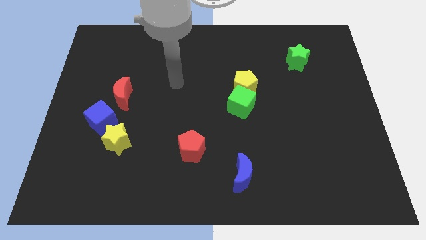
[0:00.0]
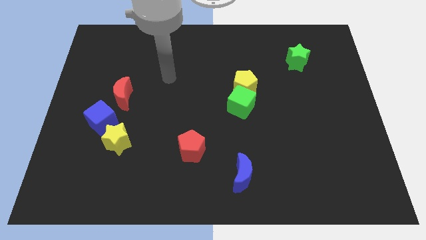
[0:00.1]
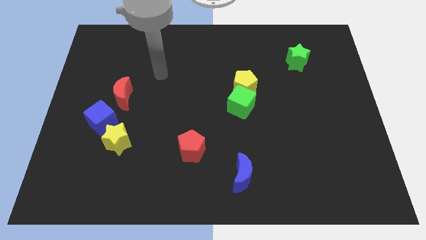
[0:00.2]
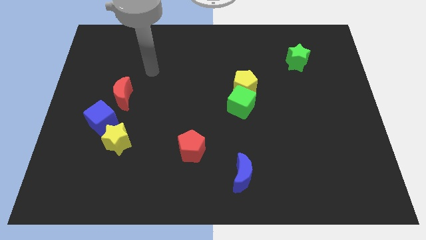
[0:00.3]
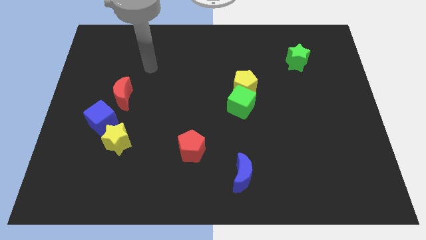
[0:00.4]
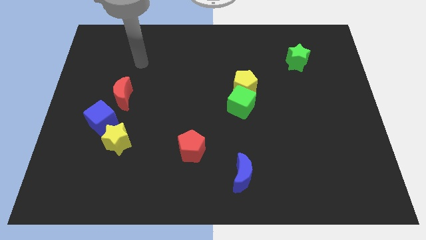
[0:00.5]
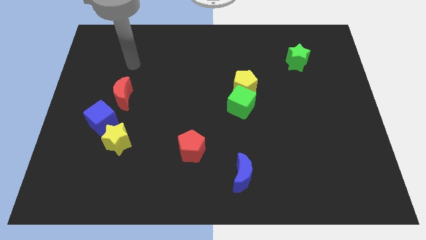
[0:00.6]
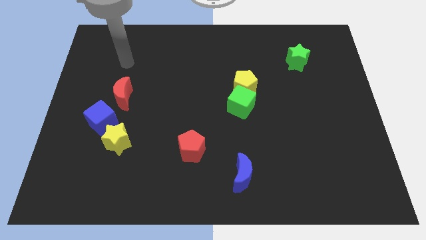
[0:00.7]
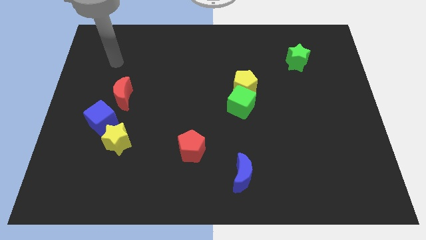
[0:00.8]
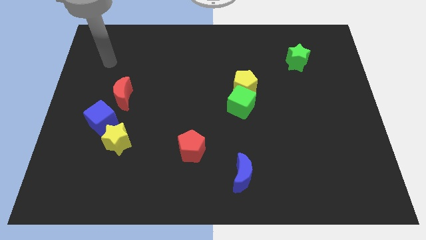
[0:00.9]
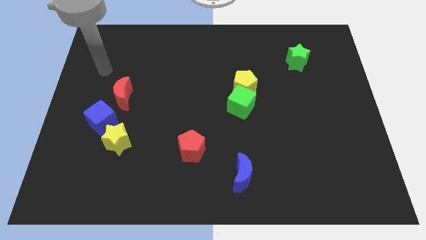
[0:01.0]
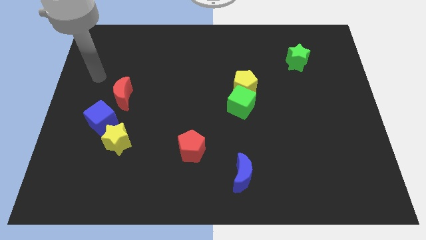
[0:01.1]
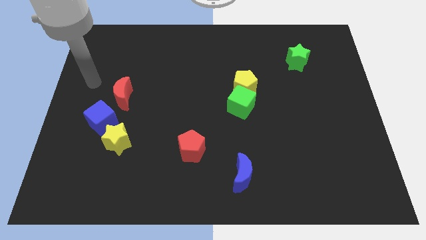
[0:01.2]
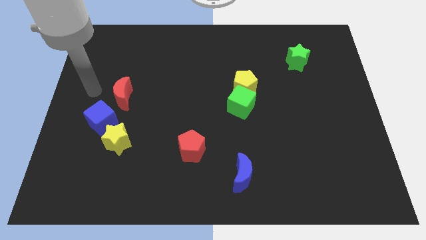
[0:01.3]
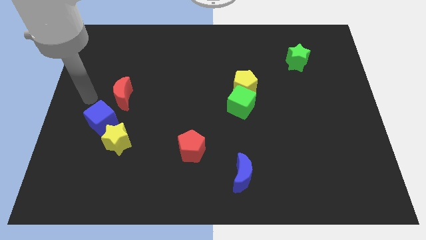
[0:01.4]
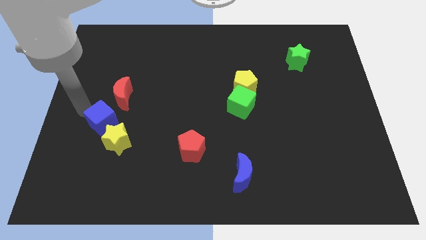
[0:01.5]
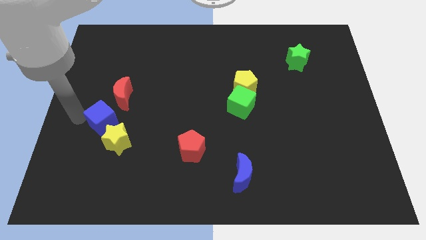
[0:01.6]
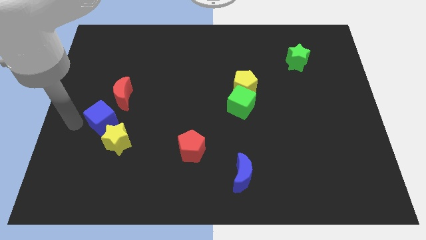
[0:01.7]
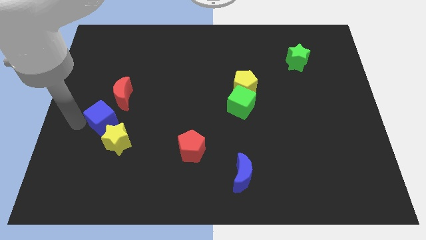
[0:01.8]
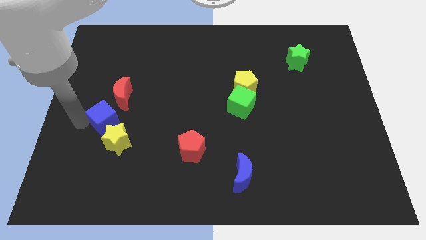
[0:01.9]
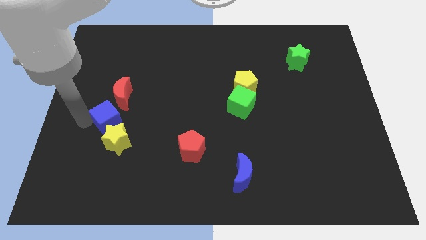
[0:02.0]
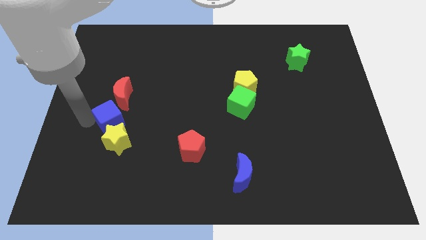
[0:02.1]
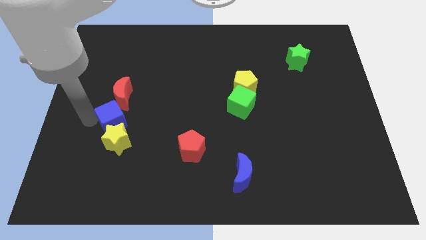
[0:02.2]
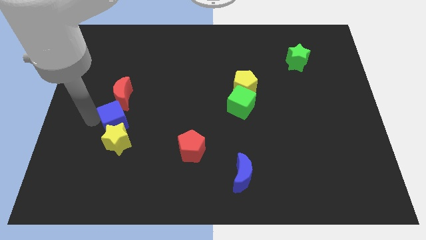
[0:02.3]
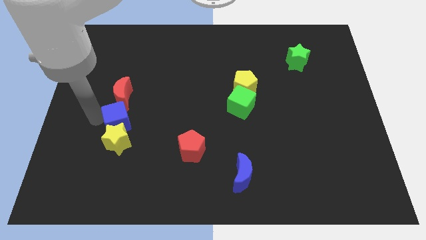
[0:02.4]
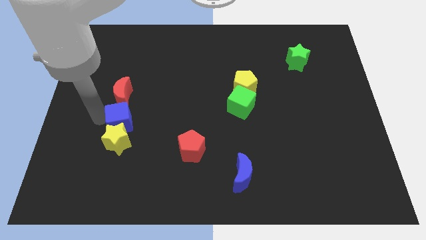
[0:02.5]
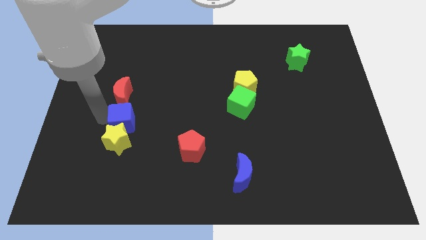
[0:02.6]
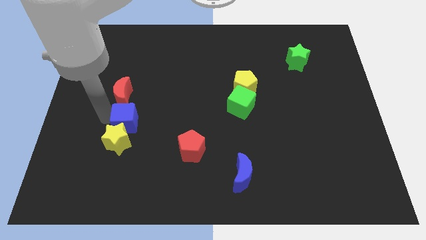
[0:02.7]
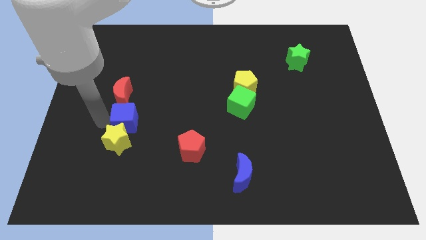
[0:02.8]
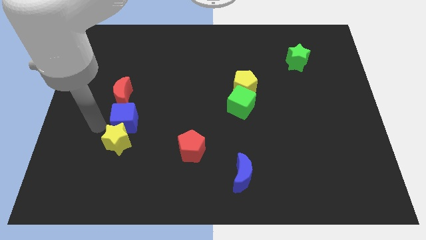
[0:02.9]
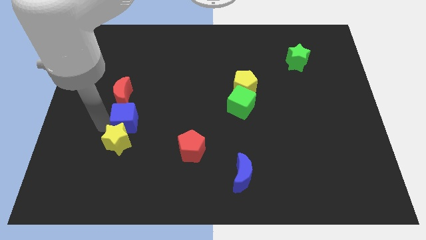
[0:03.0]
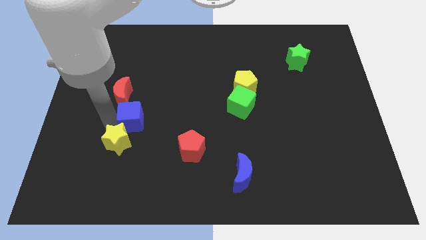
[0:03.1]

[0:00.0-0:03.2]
slightly push the blue cube to the right

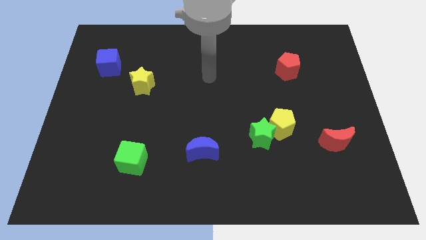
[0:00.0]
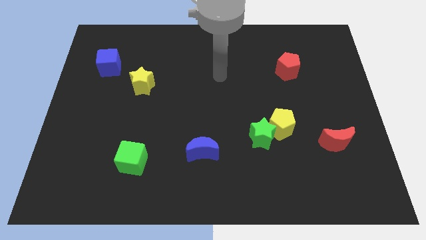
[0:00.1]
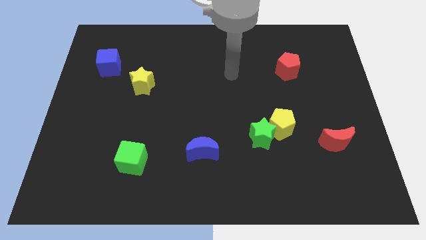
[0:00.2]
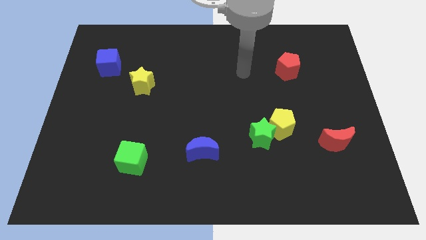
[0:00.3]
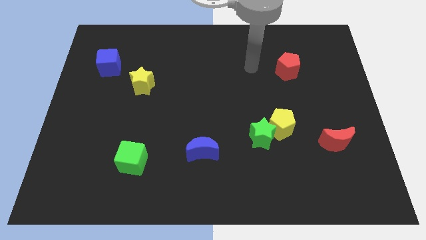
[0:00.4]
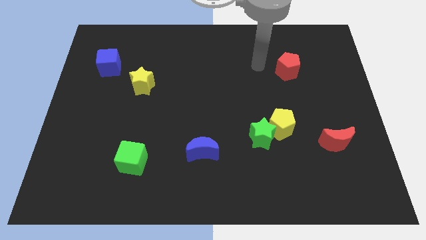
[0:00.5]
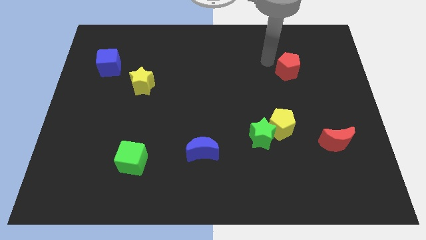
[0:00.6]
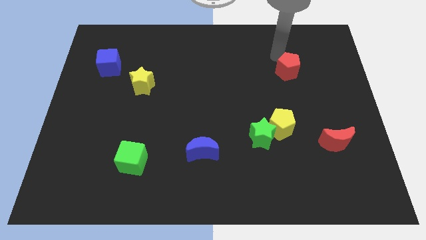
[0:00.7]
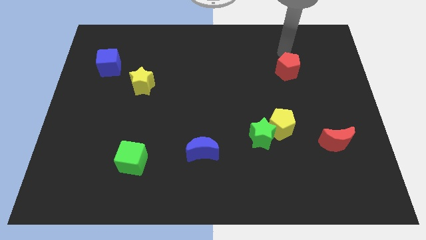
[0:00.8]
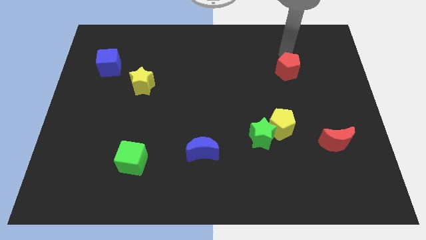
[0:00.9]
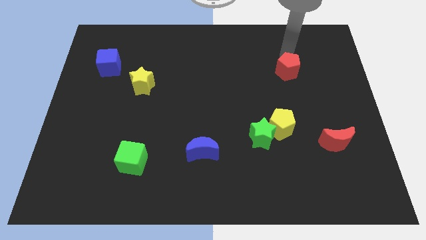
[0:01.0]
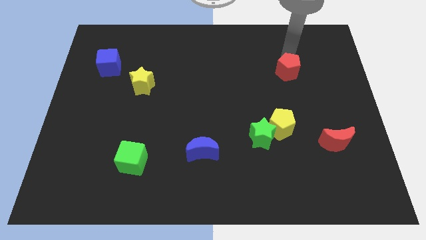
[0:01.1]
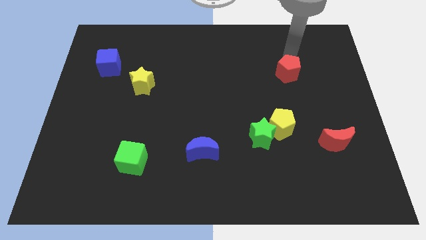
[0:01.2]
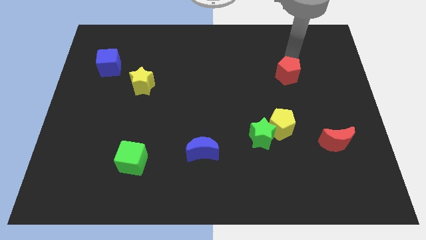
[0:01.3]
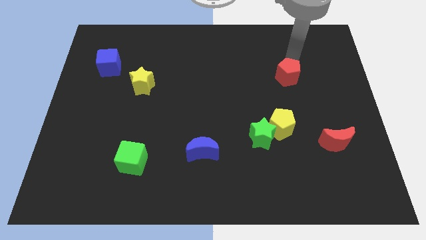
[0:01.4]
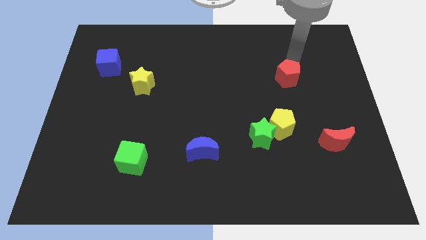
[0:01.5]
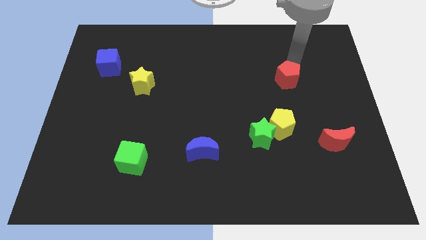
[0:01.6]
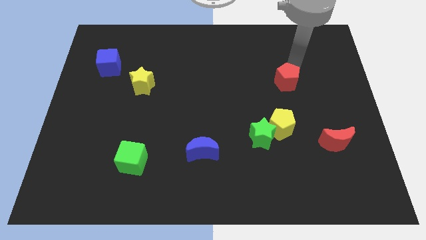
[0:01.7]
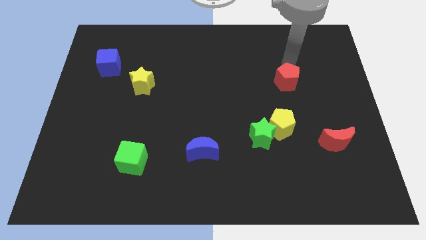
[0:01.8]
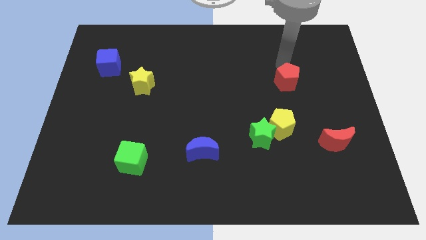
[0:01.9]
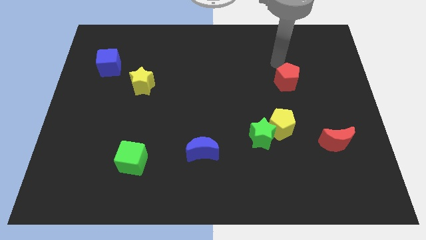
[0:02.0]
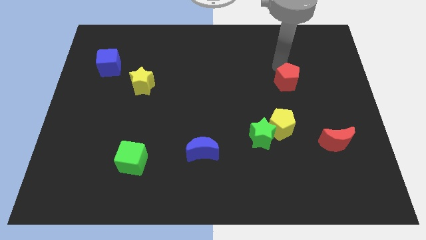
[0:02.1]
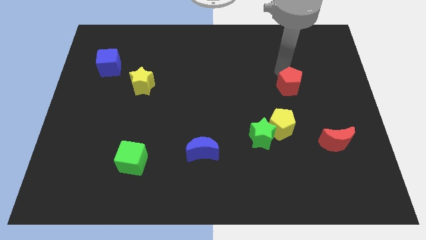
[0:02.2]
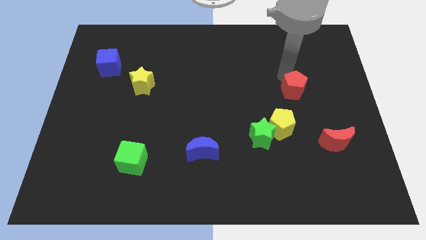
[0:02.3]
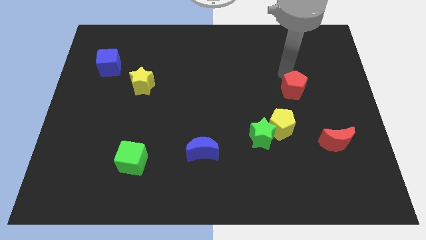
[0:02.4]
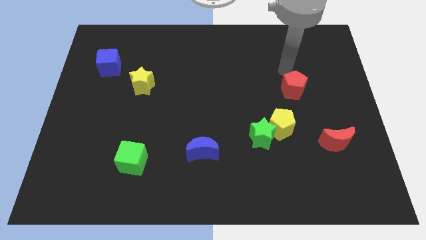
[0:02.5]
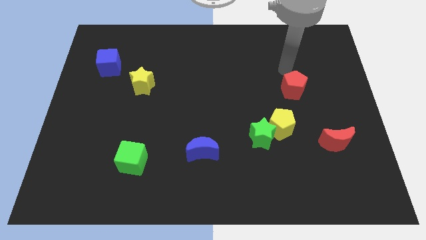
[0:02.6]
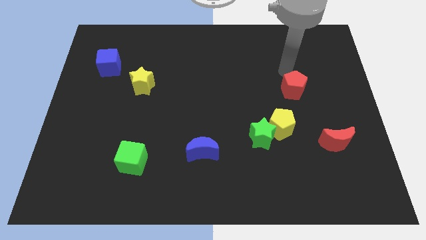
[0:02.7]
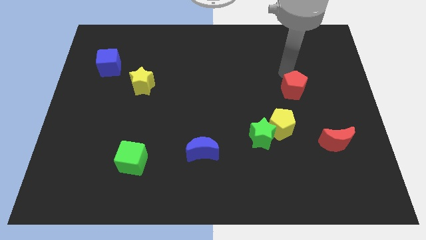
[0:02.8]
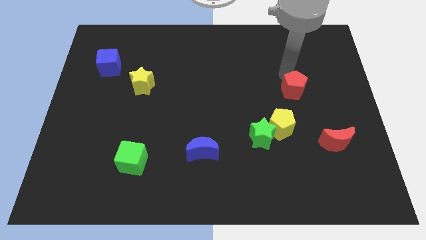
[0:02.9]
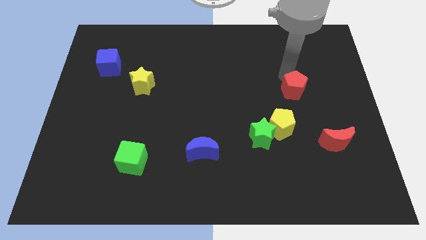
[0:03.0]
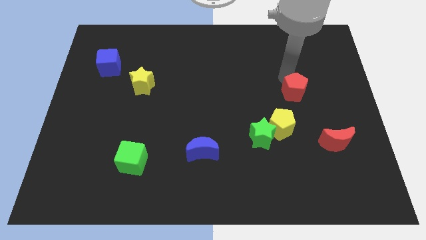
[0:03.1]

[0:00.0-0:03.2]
slide the red pentagon down a little

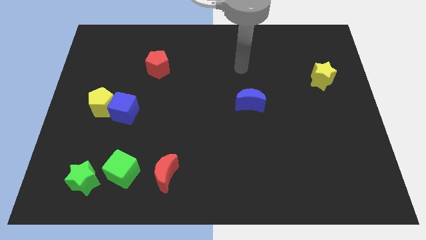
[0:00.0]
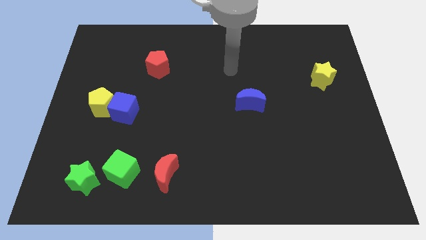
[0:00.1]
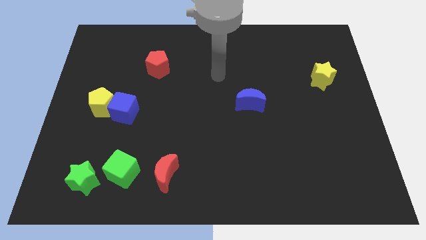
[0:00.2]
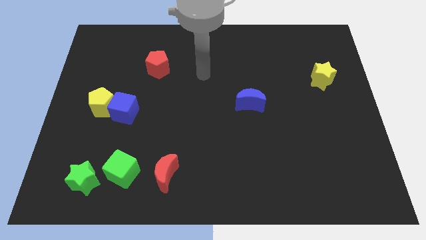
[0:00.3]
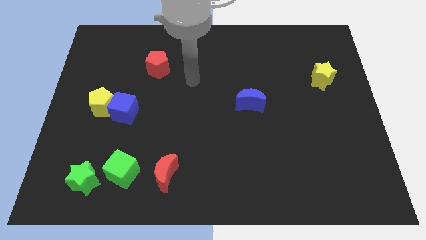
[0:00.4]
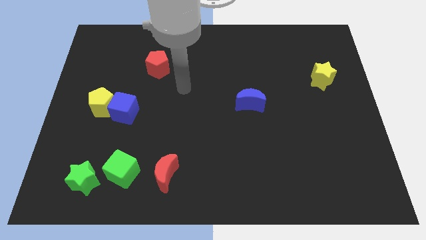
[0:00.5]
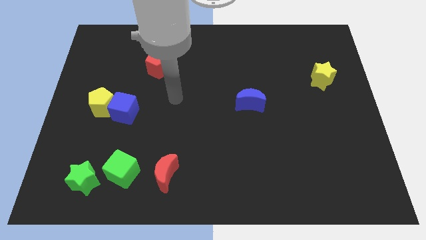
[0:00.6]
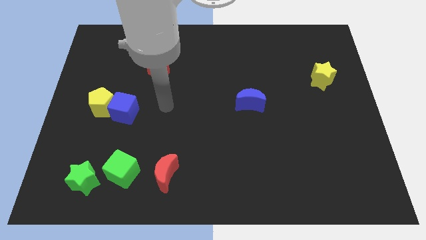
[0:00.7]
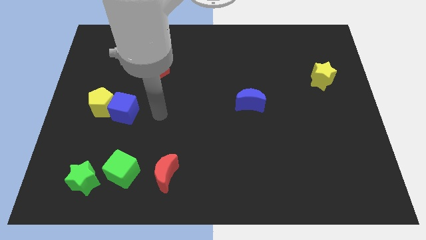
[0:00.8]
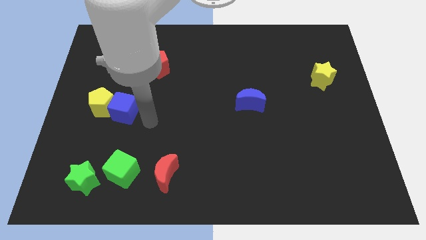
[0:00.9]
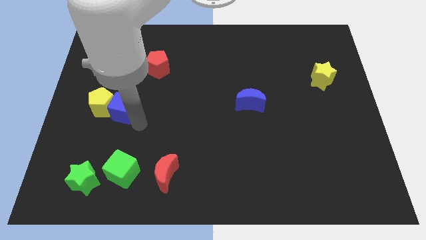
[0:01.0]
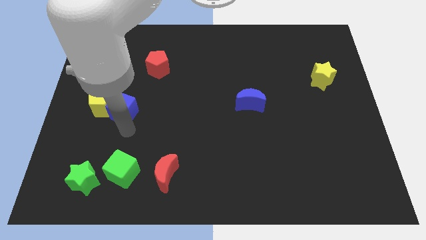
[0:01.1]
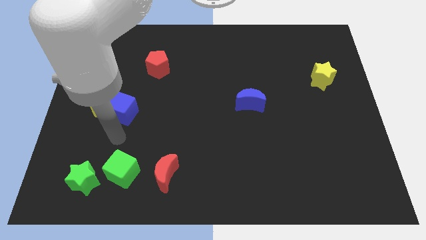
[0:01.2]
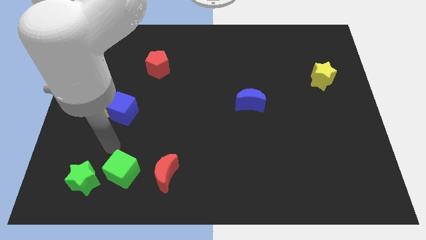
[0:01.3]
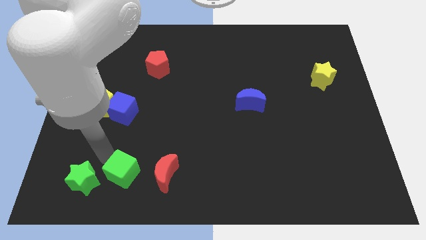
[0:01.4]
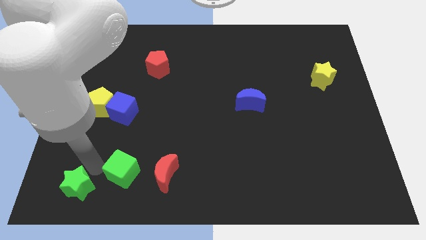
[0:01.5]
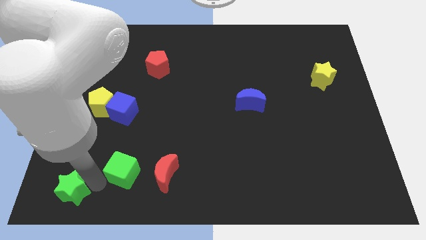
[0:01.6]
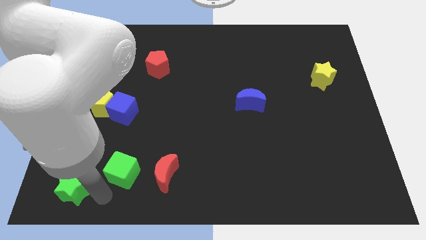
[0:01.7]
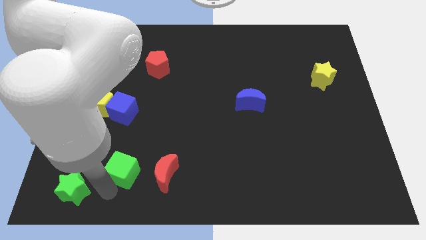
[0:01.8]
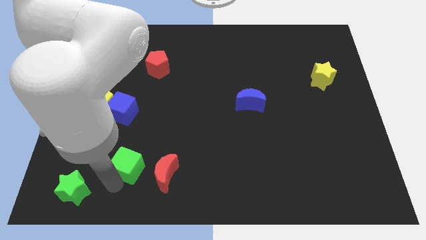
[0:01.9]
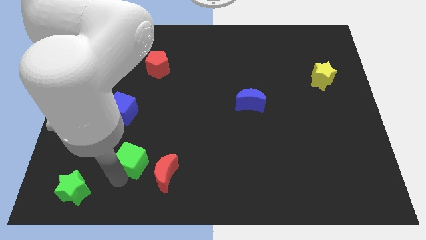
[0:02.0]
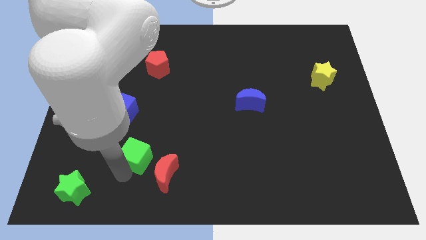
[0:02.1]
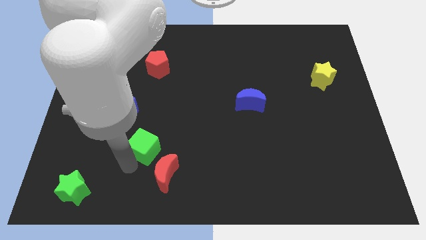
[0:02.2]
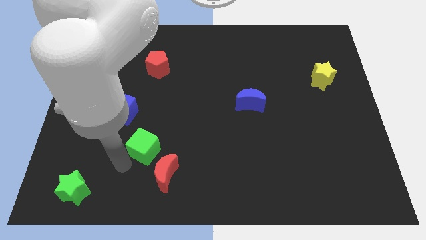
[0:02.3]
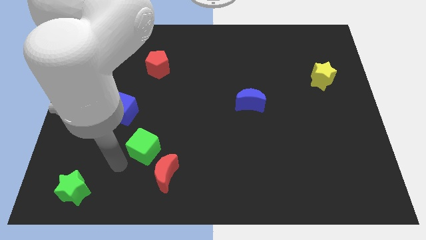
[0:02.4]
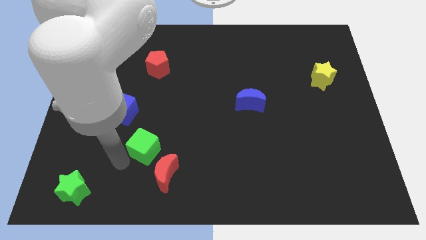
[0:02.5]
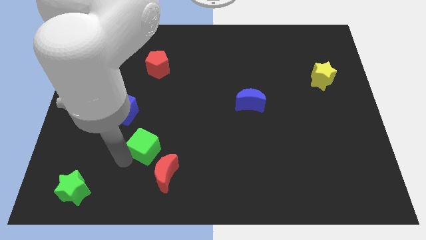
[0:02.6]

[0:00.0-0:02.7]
slightly move the green cube upwards and right diagonally
